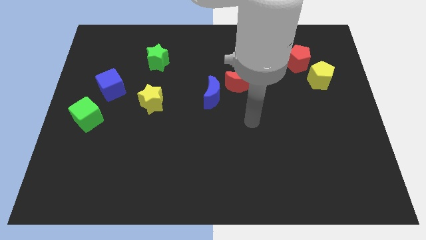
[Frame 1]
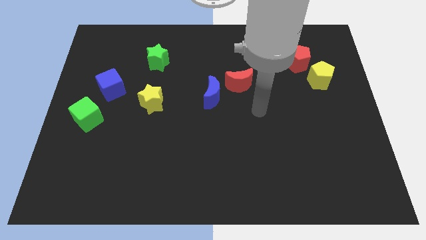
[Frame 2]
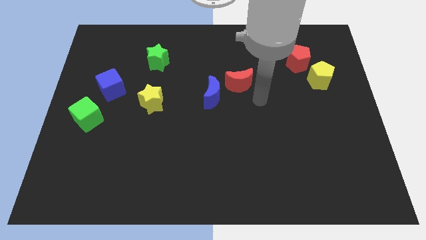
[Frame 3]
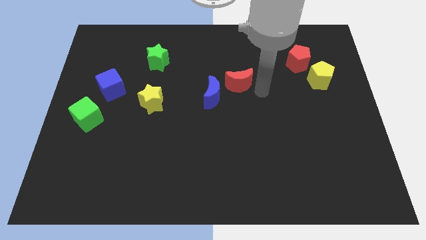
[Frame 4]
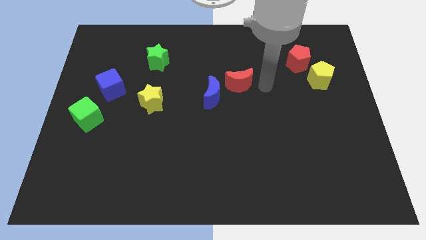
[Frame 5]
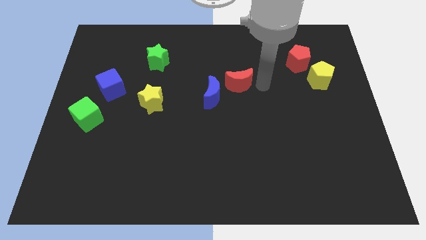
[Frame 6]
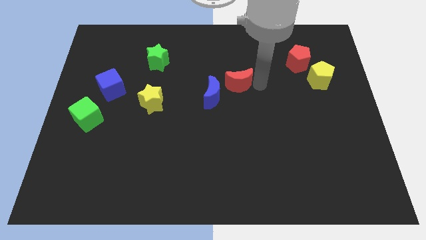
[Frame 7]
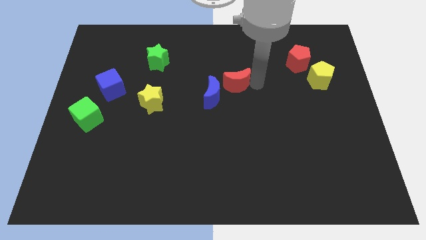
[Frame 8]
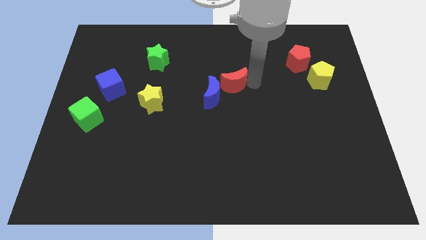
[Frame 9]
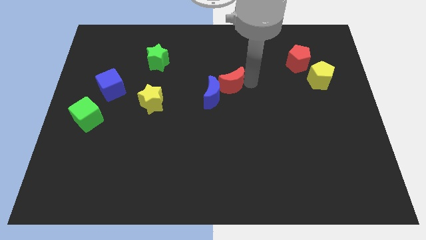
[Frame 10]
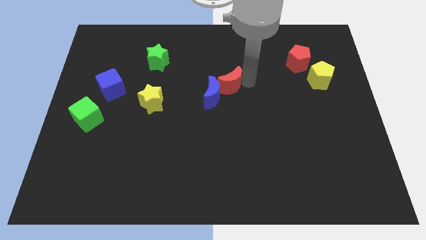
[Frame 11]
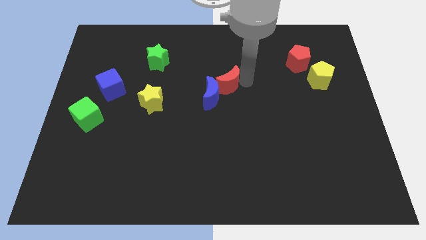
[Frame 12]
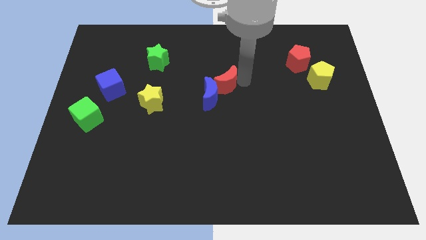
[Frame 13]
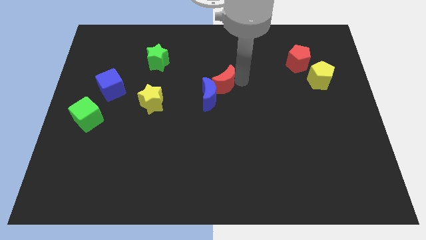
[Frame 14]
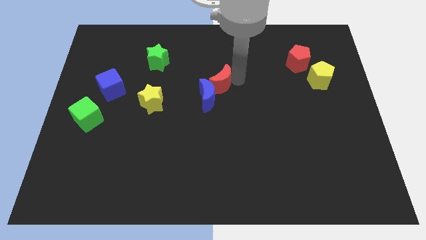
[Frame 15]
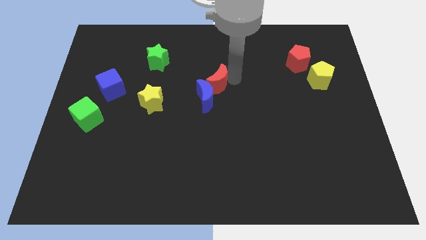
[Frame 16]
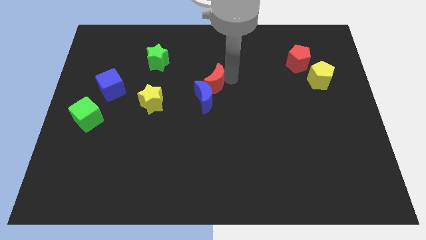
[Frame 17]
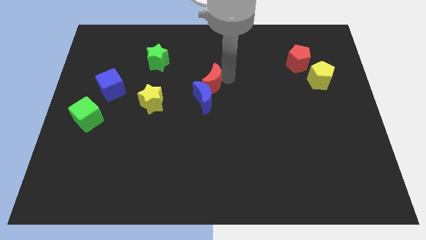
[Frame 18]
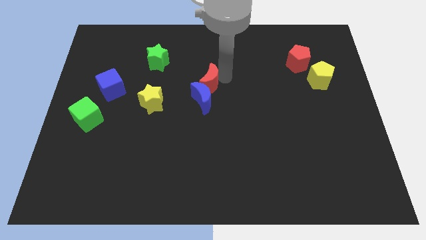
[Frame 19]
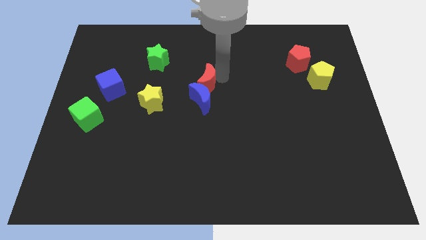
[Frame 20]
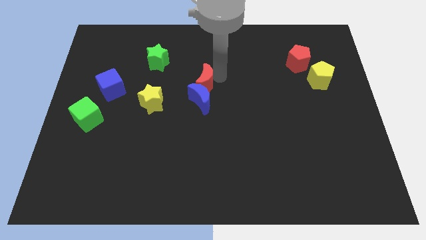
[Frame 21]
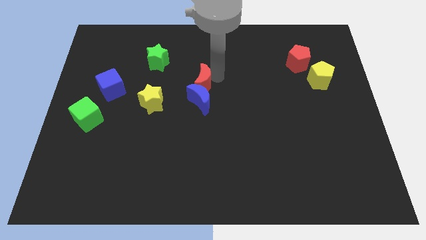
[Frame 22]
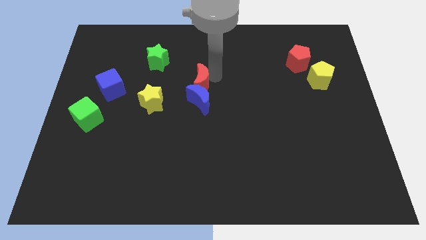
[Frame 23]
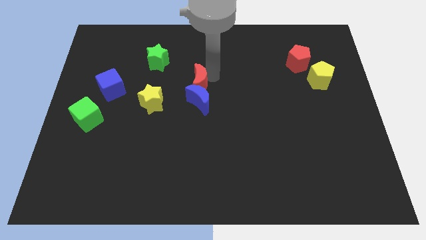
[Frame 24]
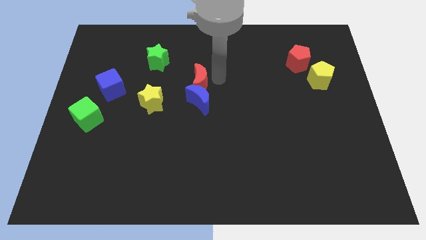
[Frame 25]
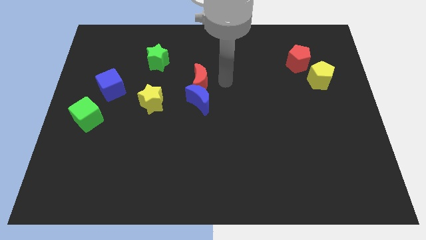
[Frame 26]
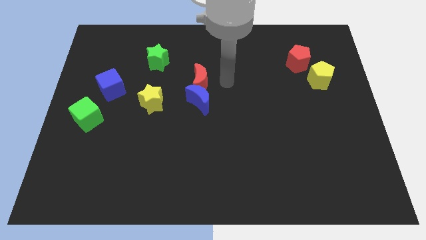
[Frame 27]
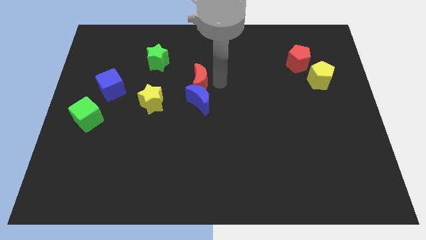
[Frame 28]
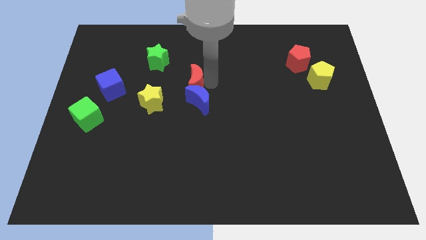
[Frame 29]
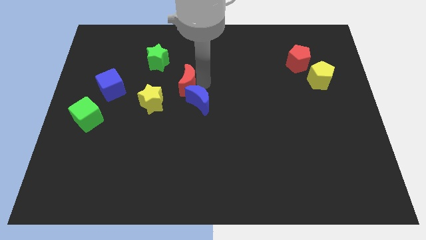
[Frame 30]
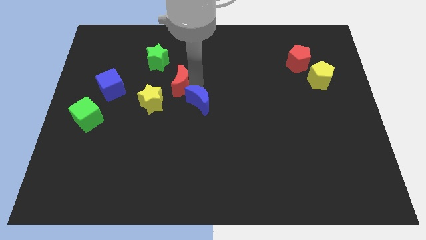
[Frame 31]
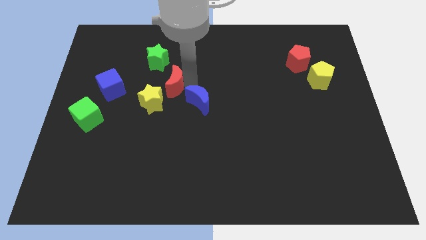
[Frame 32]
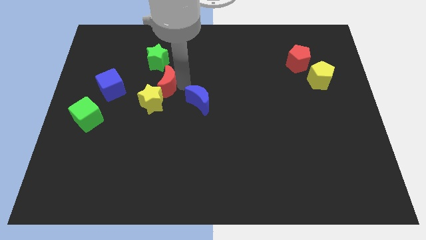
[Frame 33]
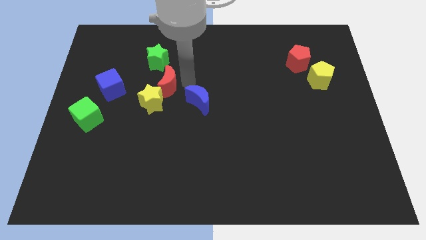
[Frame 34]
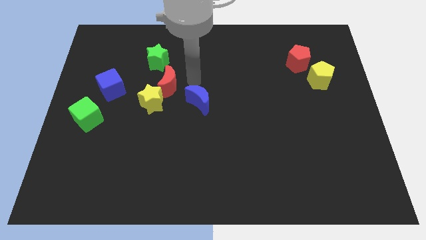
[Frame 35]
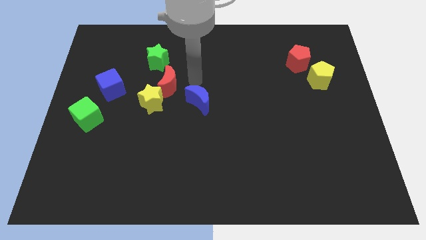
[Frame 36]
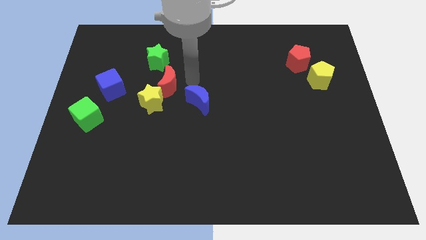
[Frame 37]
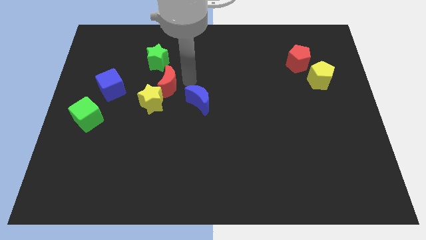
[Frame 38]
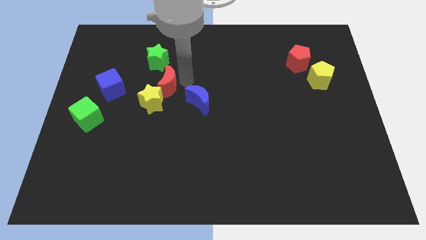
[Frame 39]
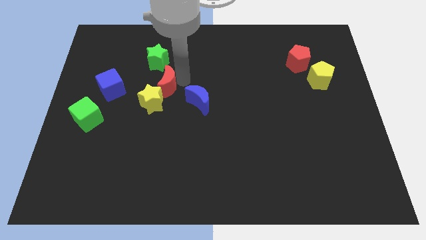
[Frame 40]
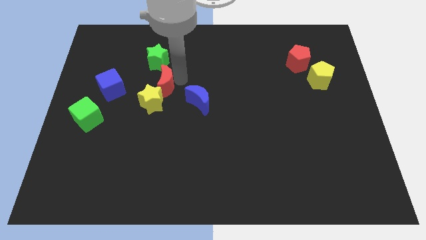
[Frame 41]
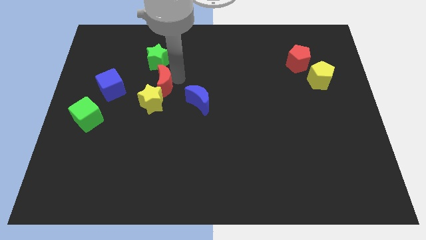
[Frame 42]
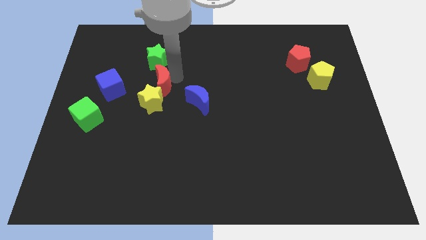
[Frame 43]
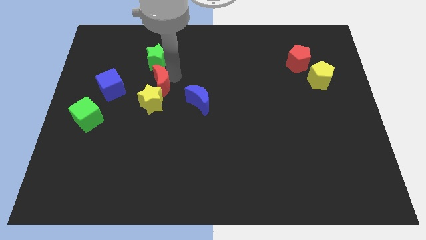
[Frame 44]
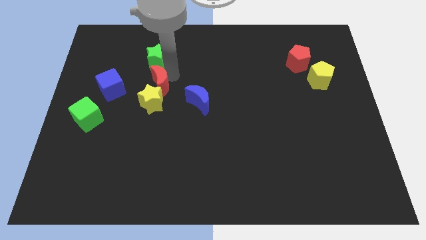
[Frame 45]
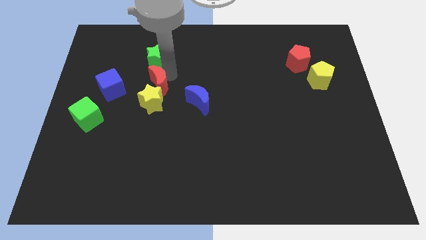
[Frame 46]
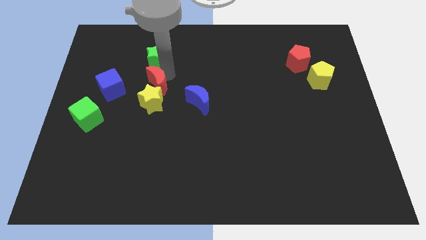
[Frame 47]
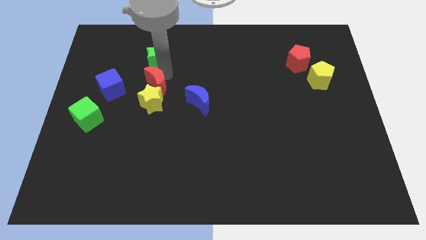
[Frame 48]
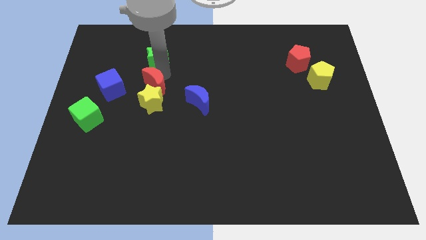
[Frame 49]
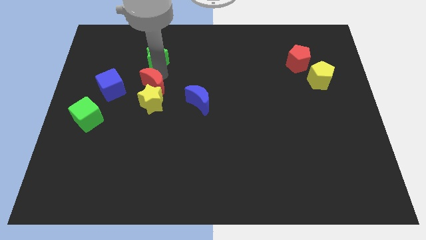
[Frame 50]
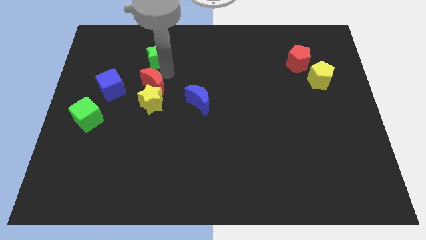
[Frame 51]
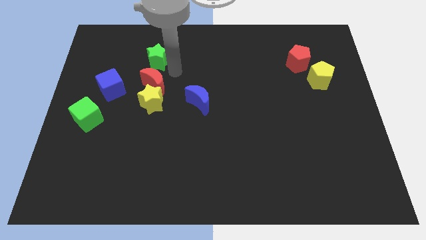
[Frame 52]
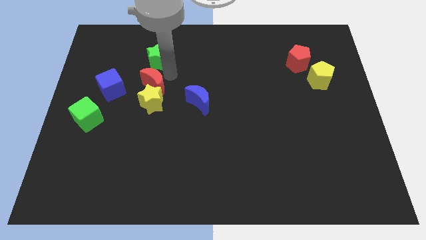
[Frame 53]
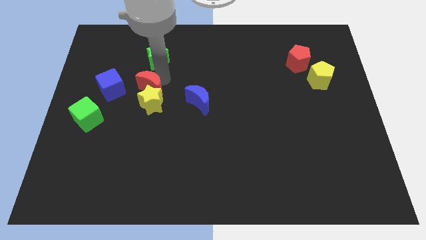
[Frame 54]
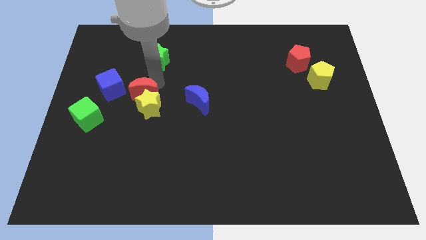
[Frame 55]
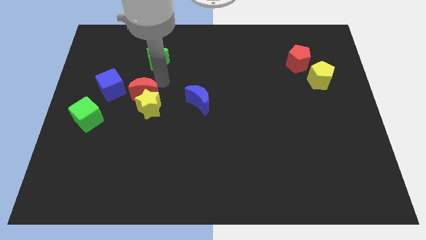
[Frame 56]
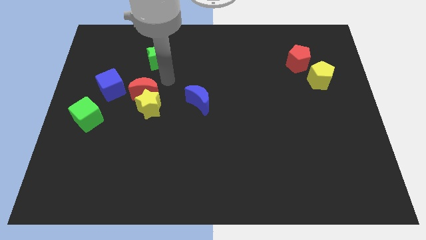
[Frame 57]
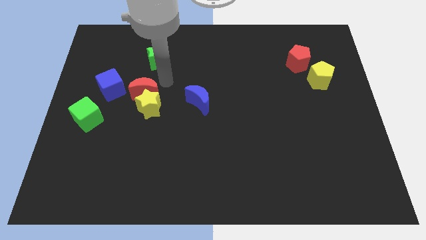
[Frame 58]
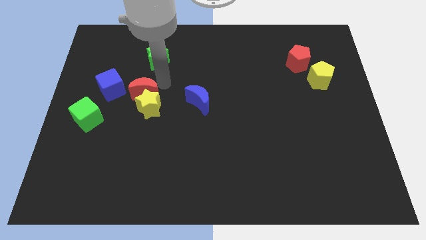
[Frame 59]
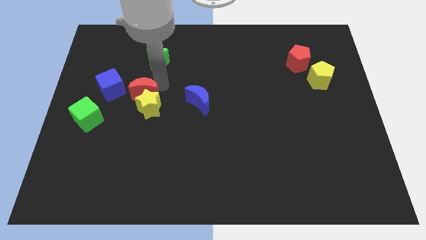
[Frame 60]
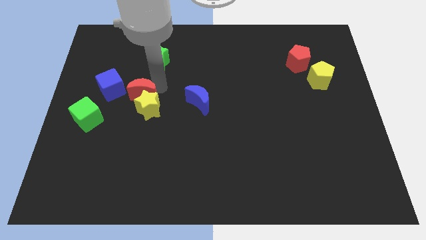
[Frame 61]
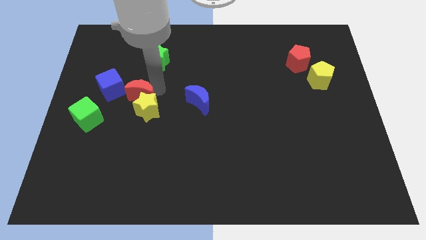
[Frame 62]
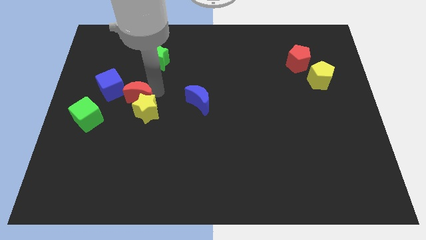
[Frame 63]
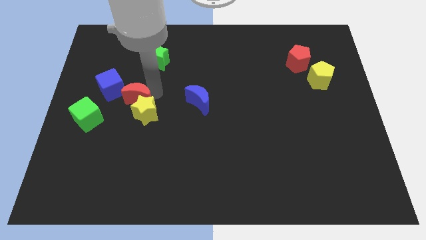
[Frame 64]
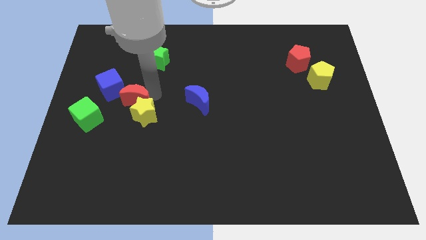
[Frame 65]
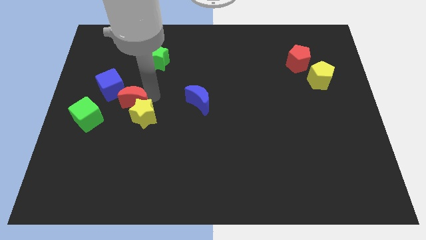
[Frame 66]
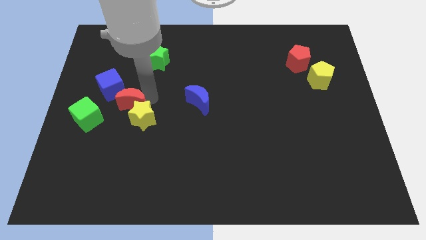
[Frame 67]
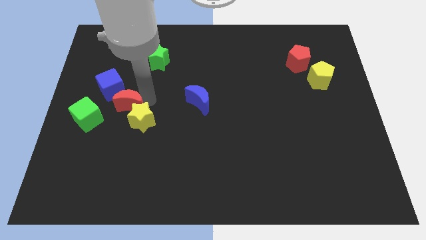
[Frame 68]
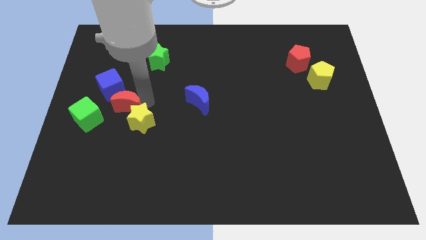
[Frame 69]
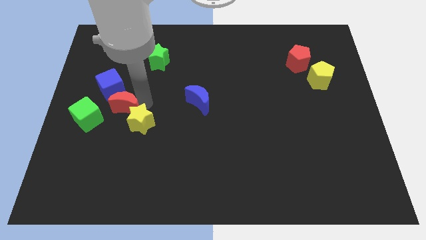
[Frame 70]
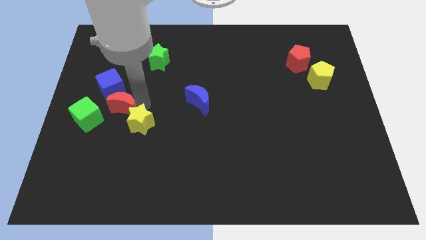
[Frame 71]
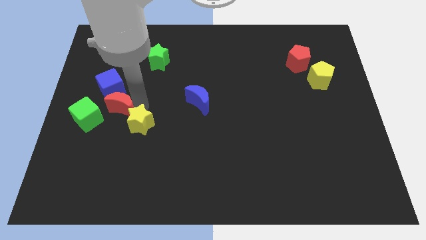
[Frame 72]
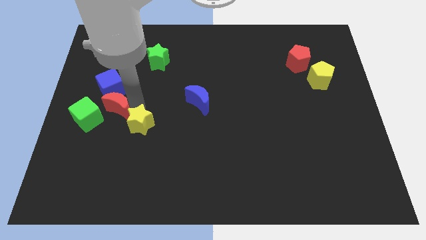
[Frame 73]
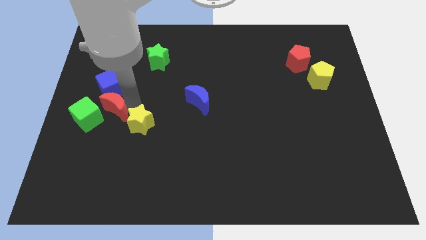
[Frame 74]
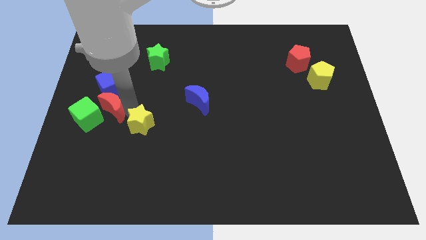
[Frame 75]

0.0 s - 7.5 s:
push the red moon close to the green cube
